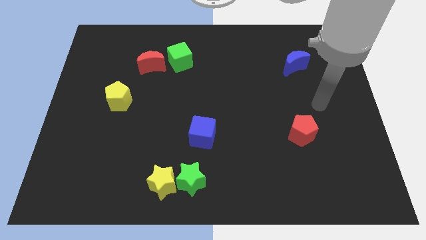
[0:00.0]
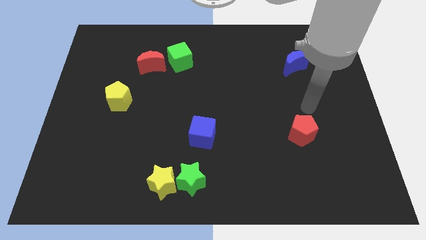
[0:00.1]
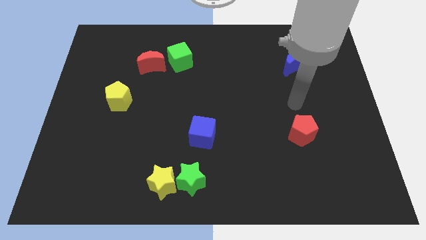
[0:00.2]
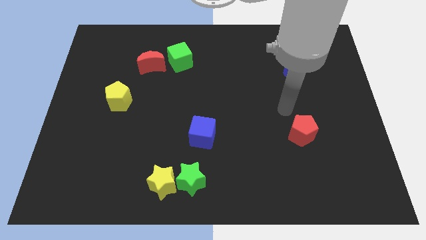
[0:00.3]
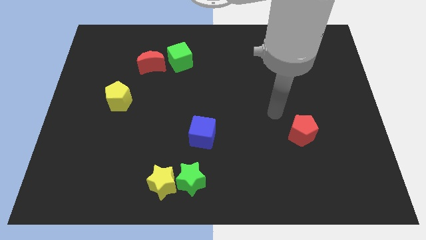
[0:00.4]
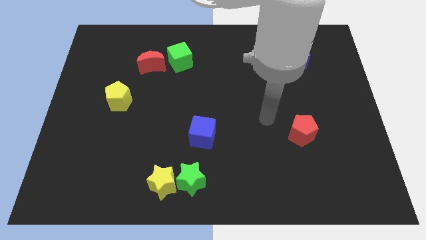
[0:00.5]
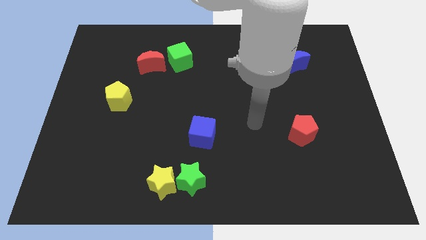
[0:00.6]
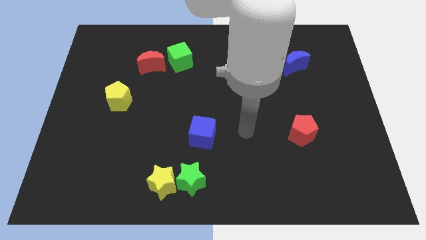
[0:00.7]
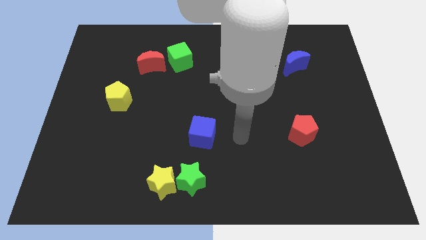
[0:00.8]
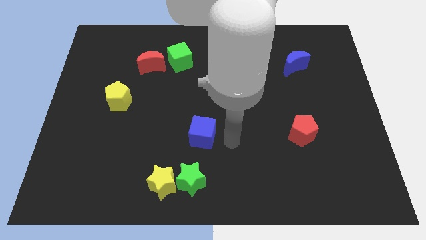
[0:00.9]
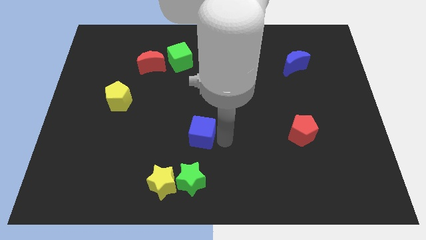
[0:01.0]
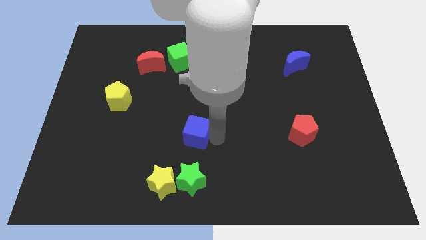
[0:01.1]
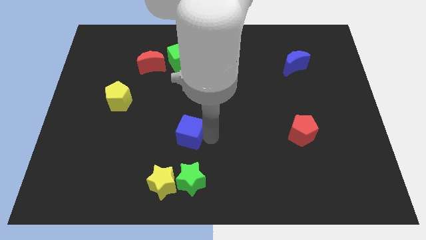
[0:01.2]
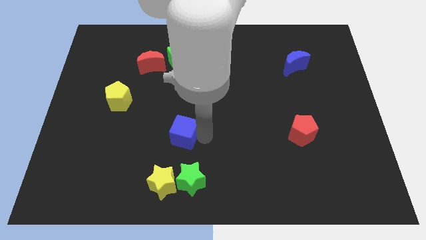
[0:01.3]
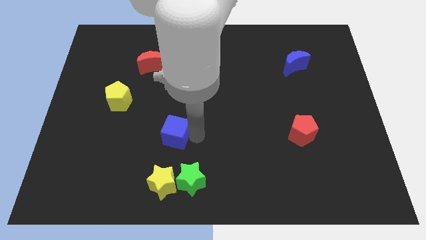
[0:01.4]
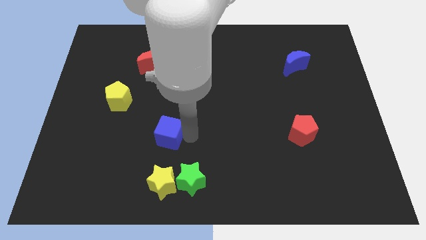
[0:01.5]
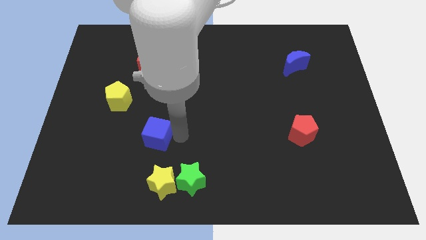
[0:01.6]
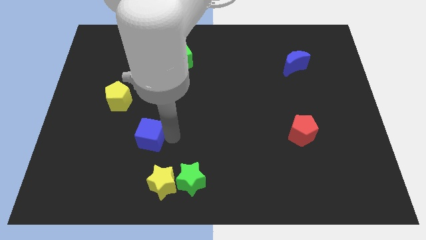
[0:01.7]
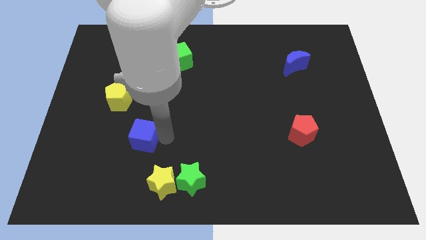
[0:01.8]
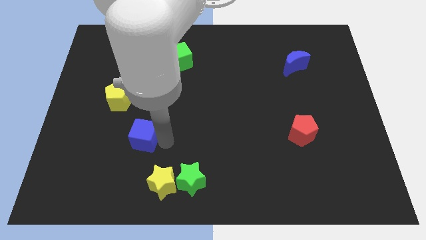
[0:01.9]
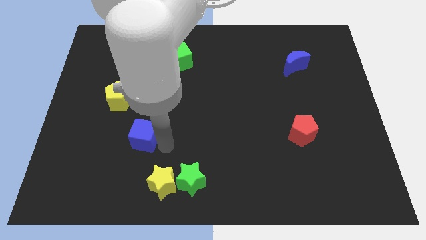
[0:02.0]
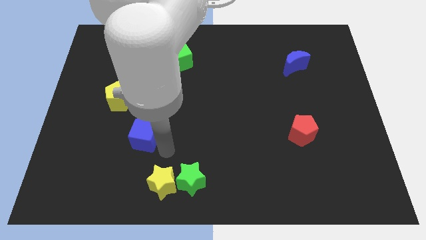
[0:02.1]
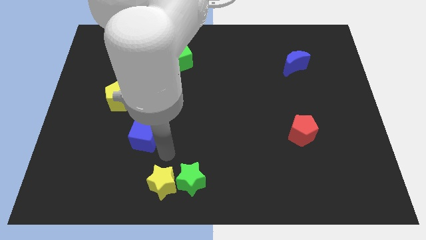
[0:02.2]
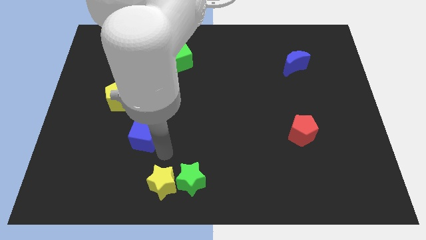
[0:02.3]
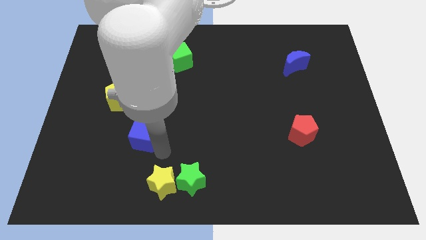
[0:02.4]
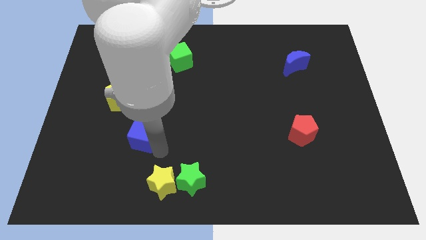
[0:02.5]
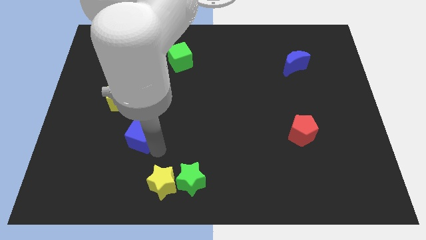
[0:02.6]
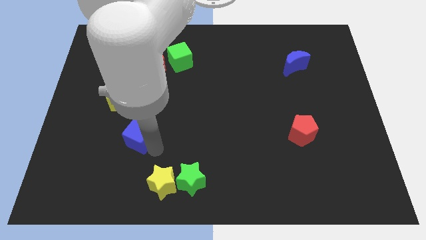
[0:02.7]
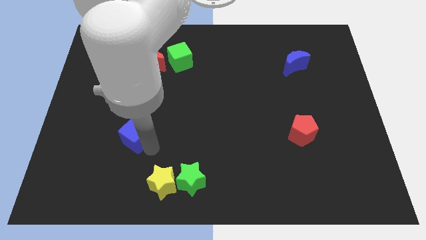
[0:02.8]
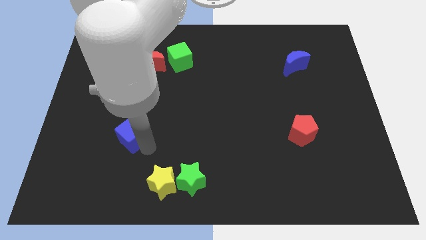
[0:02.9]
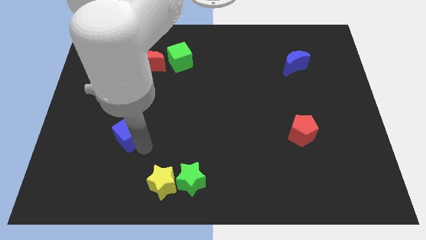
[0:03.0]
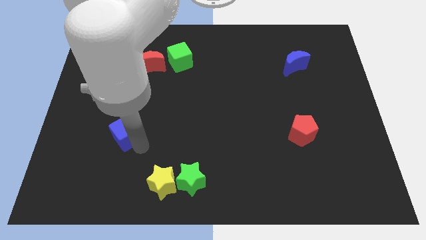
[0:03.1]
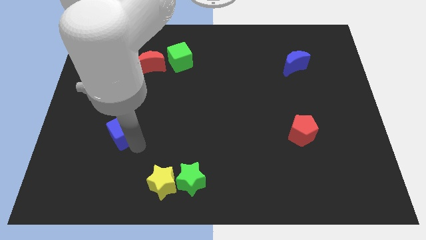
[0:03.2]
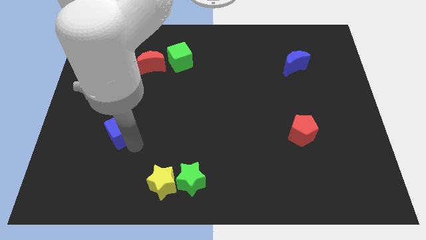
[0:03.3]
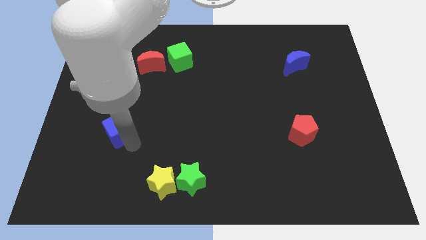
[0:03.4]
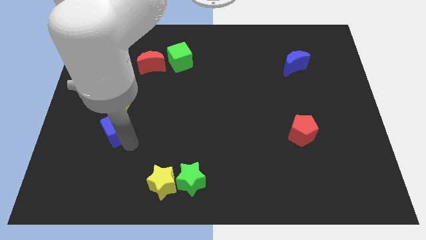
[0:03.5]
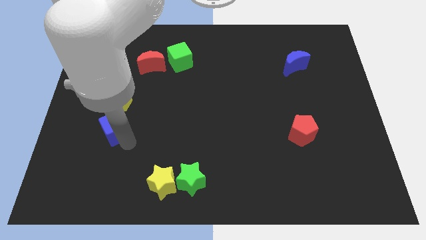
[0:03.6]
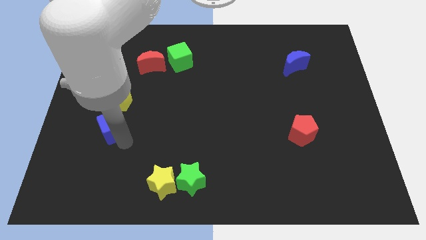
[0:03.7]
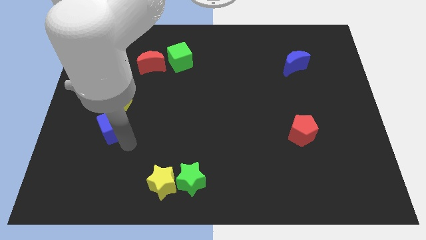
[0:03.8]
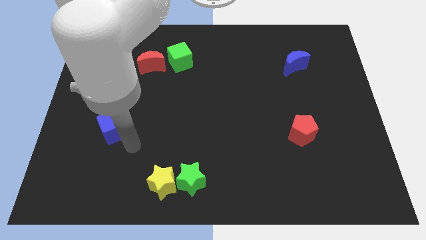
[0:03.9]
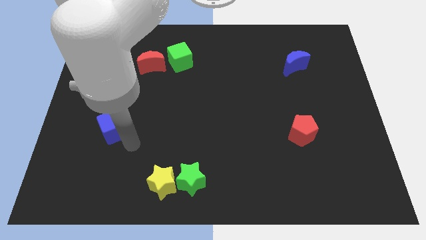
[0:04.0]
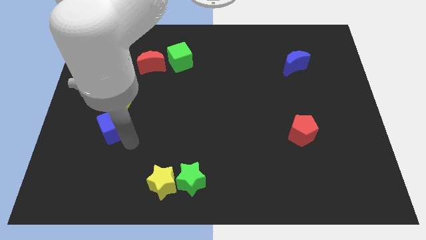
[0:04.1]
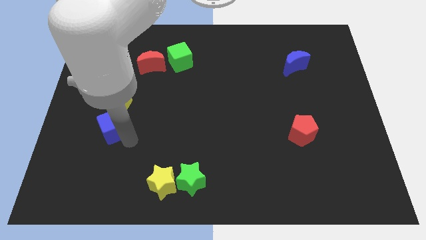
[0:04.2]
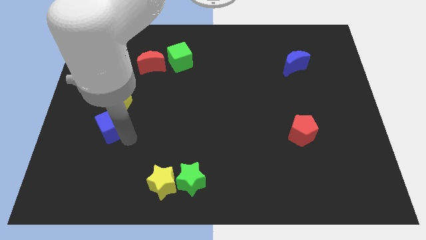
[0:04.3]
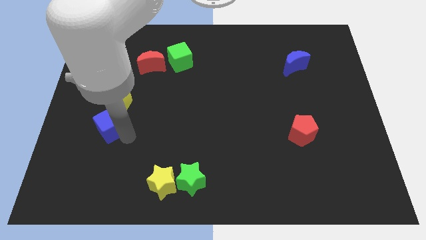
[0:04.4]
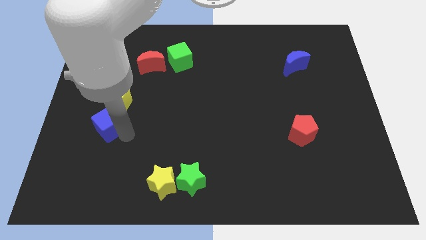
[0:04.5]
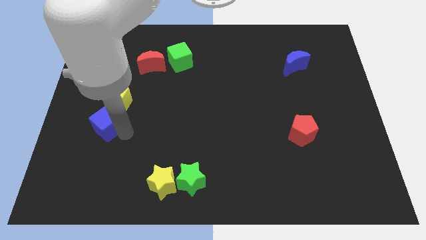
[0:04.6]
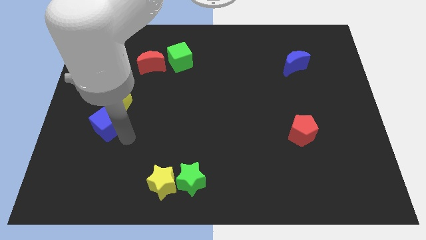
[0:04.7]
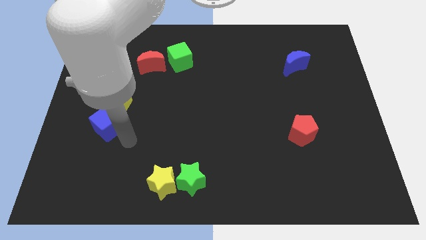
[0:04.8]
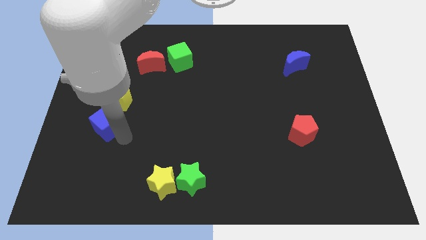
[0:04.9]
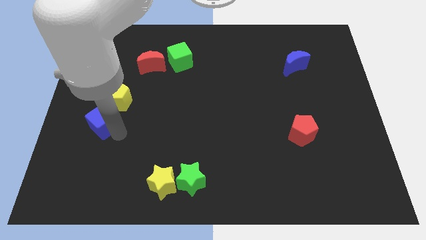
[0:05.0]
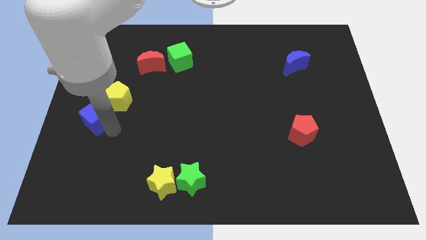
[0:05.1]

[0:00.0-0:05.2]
push the blue cube to the center left
